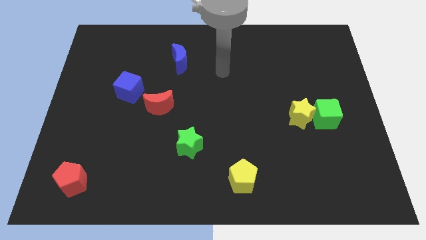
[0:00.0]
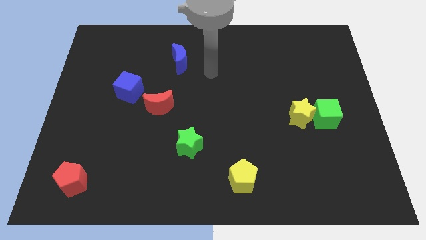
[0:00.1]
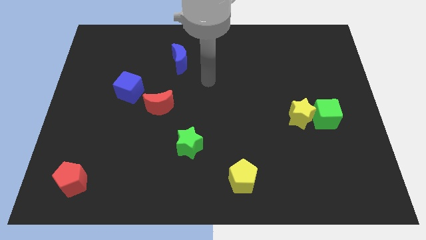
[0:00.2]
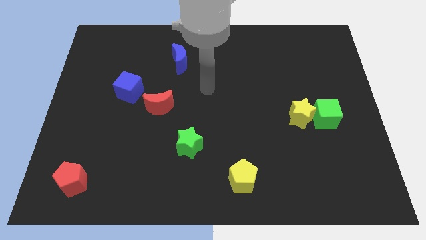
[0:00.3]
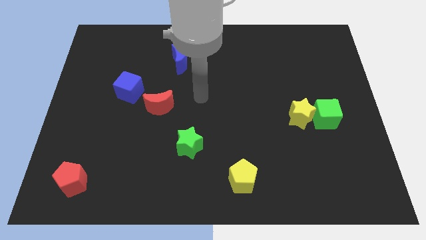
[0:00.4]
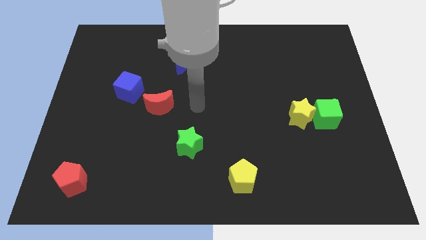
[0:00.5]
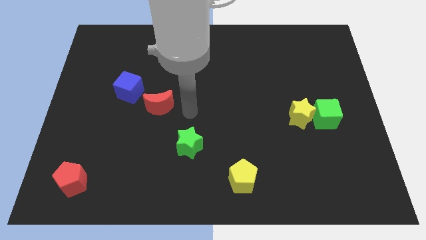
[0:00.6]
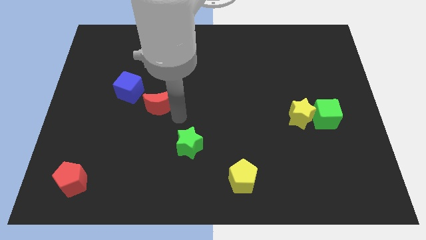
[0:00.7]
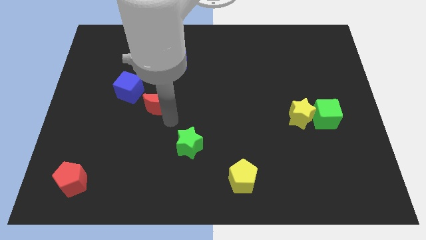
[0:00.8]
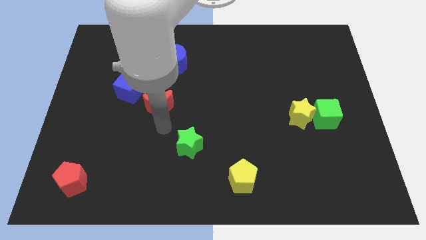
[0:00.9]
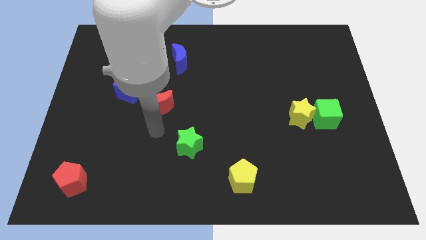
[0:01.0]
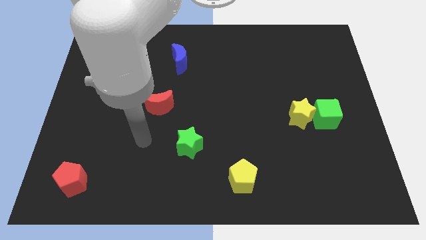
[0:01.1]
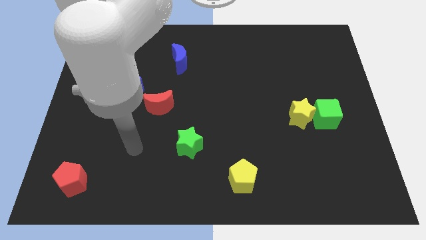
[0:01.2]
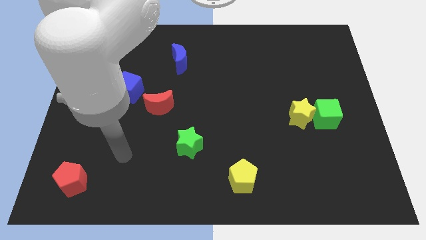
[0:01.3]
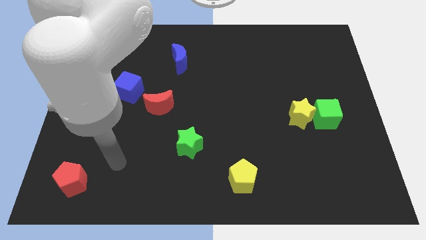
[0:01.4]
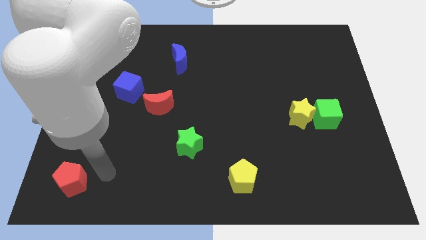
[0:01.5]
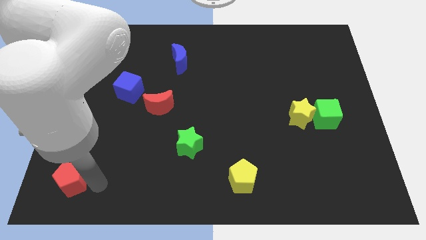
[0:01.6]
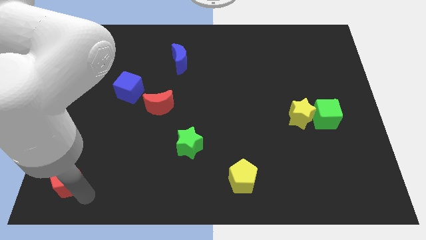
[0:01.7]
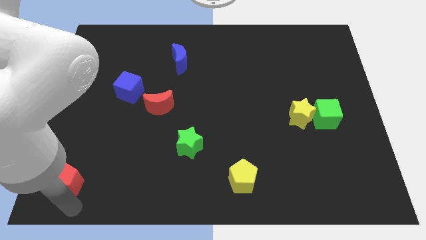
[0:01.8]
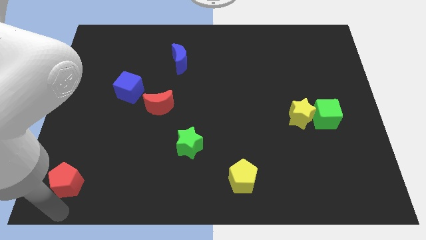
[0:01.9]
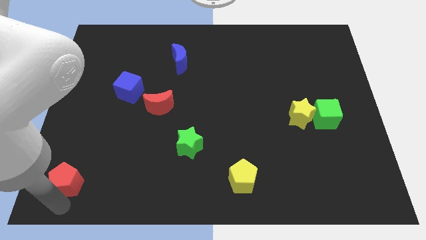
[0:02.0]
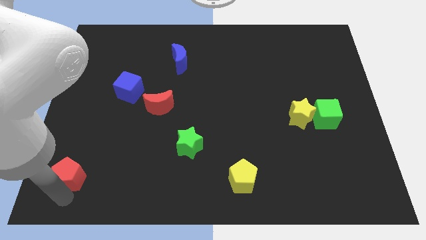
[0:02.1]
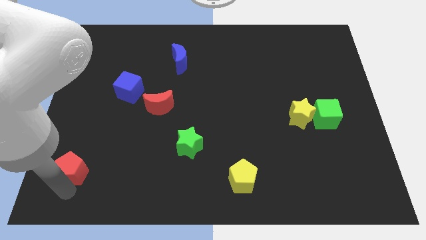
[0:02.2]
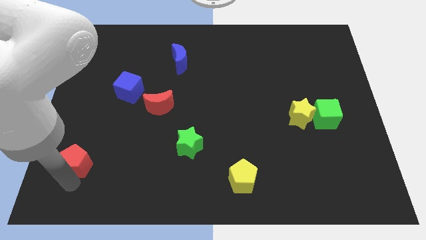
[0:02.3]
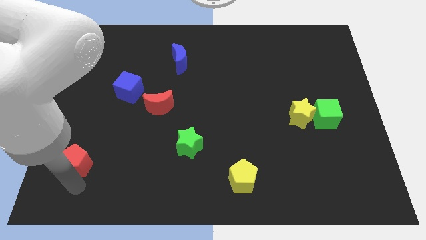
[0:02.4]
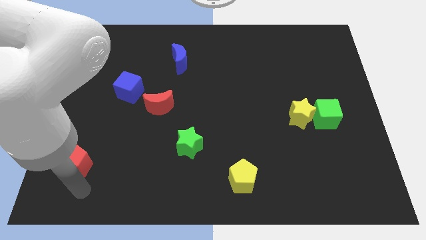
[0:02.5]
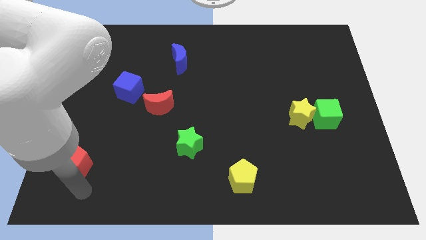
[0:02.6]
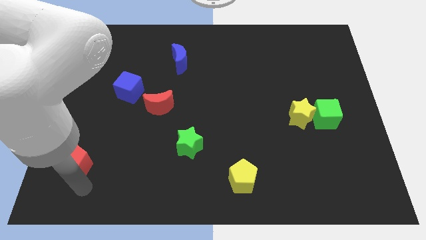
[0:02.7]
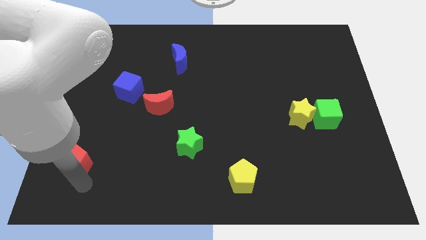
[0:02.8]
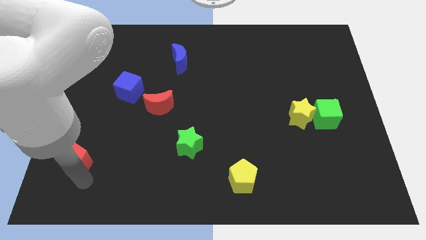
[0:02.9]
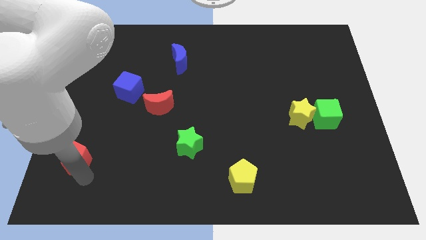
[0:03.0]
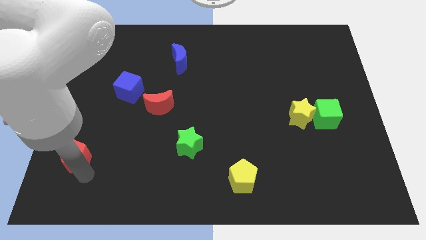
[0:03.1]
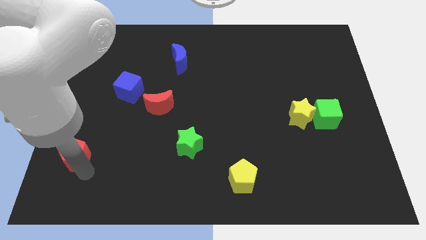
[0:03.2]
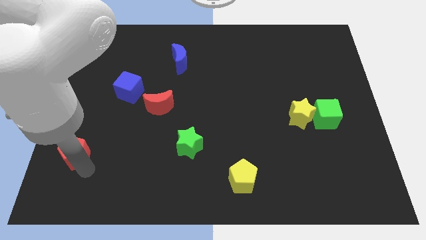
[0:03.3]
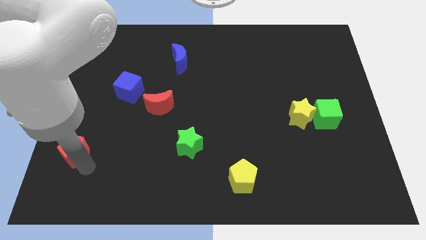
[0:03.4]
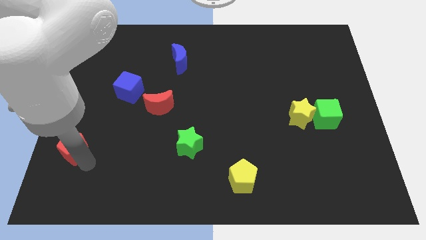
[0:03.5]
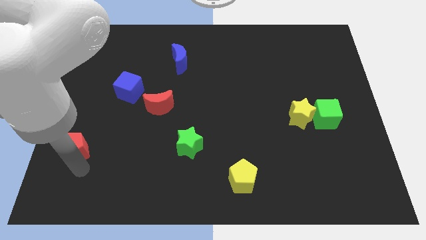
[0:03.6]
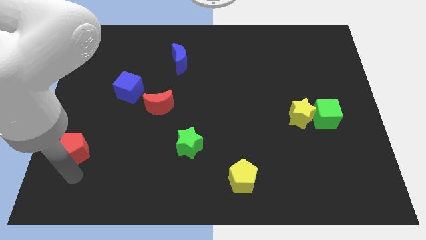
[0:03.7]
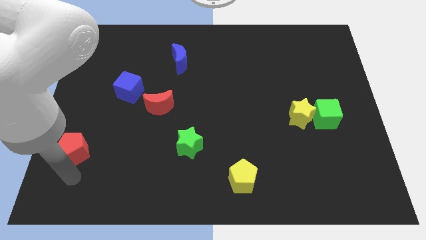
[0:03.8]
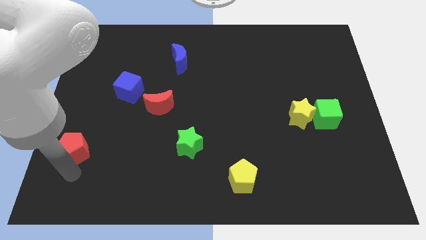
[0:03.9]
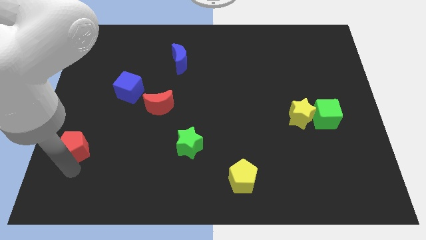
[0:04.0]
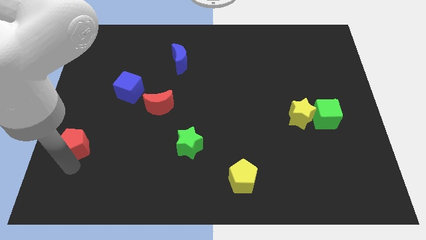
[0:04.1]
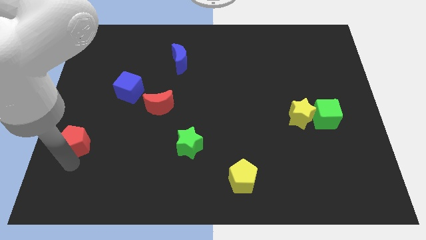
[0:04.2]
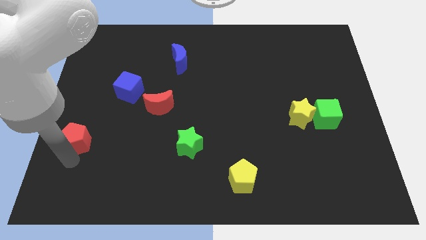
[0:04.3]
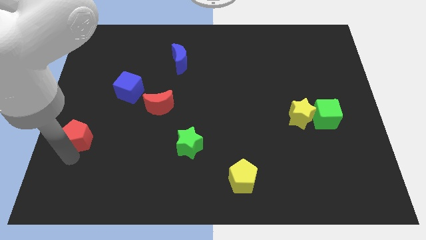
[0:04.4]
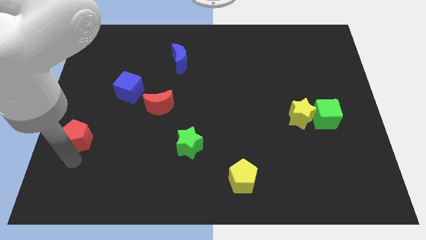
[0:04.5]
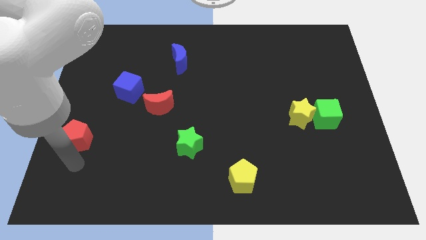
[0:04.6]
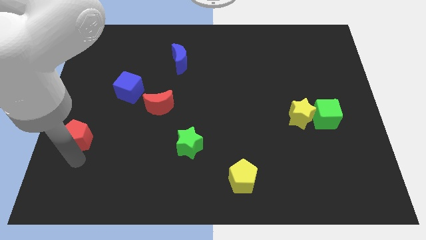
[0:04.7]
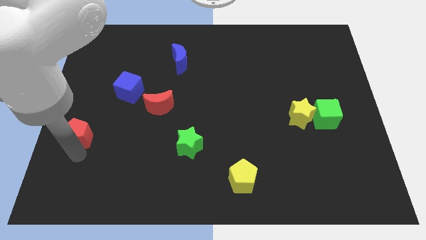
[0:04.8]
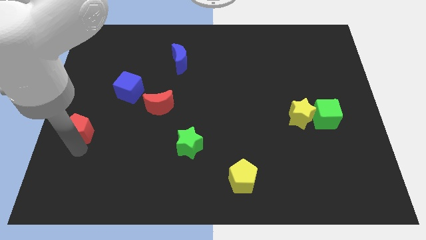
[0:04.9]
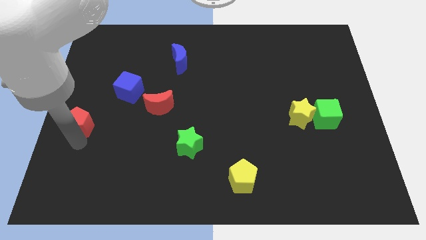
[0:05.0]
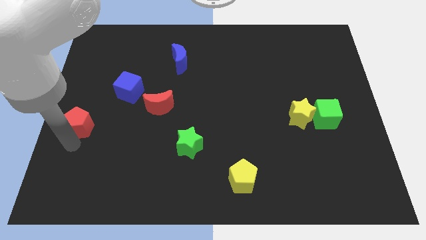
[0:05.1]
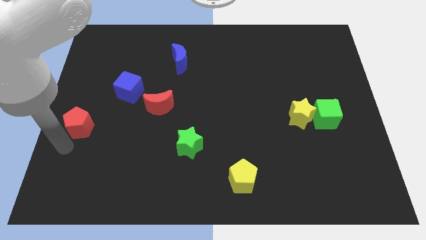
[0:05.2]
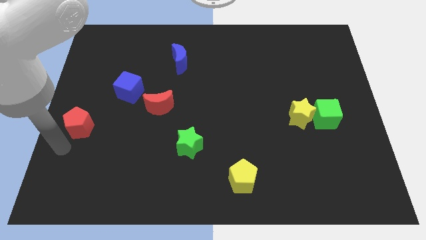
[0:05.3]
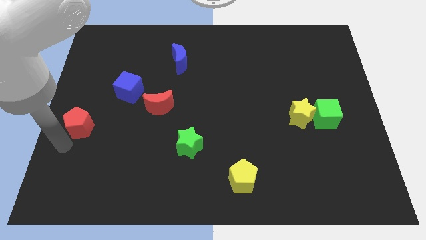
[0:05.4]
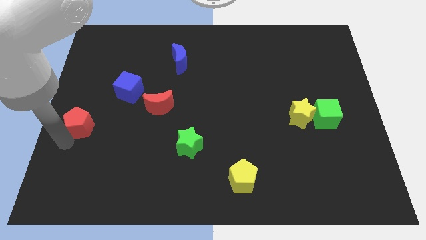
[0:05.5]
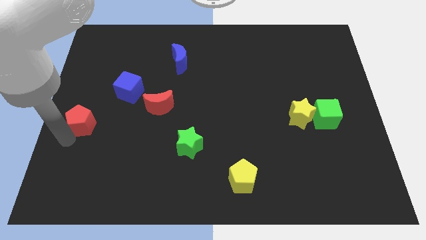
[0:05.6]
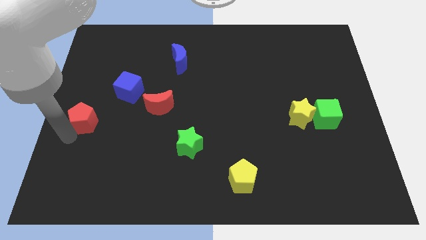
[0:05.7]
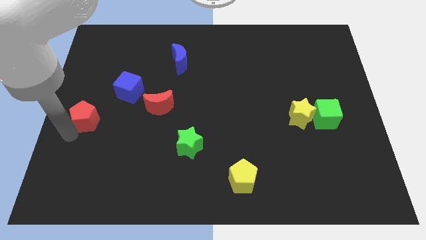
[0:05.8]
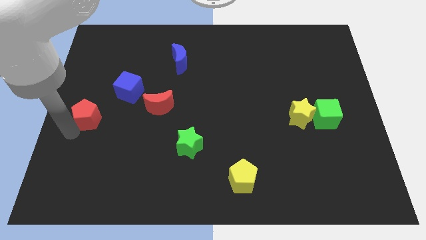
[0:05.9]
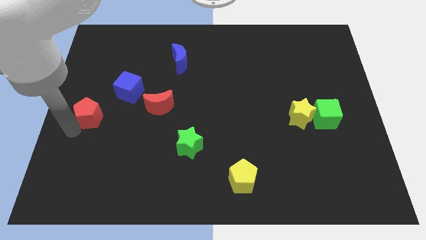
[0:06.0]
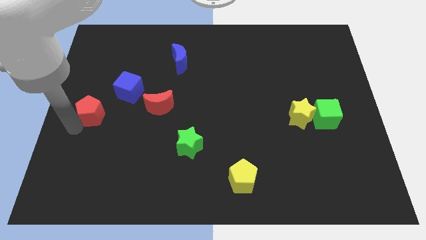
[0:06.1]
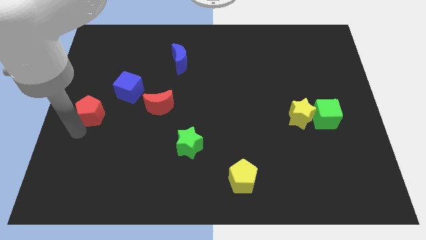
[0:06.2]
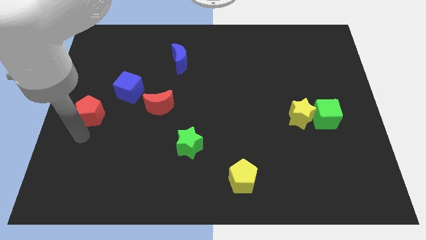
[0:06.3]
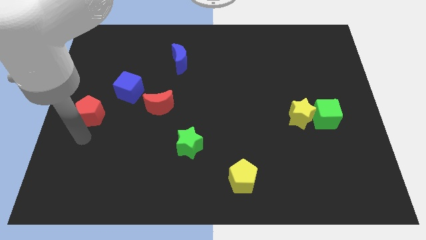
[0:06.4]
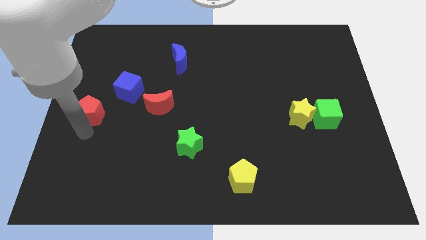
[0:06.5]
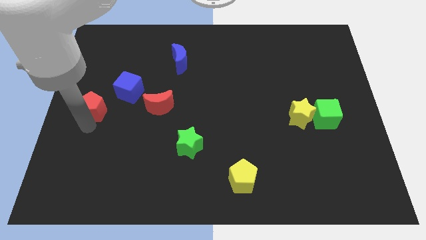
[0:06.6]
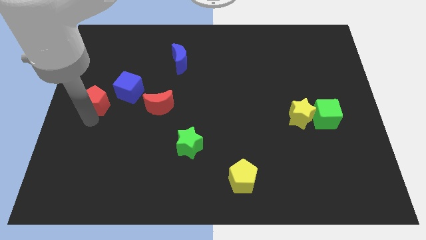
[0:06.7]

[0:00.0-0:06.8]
push the red pentagon upwards

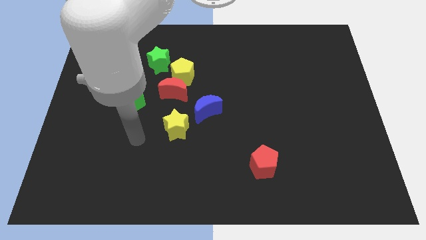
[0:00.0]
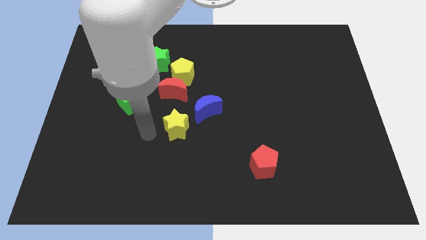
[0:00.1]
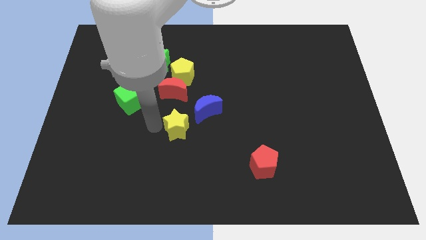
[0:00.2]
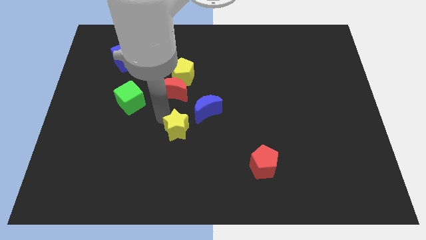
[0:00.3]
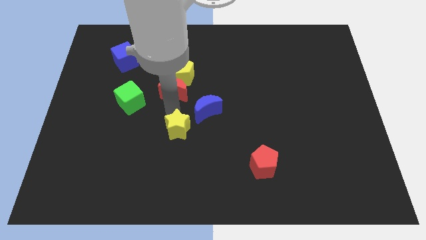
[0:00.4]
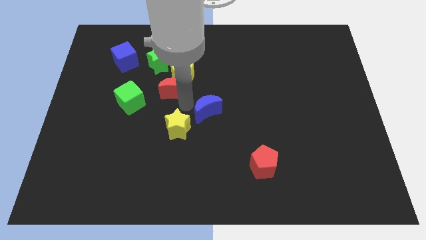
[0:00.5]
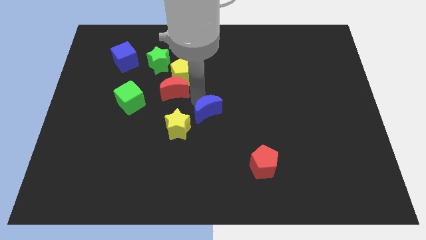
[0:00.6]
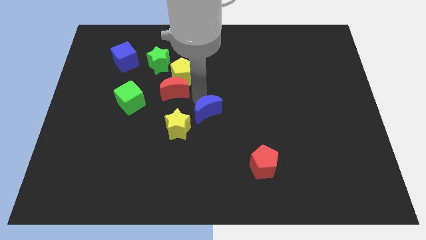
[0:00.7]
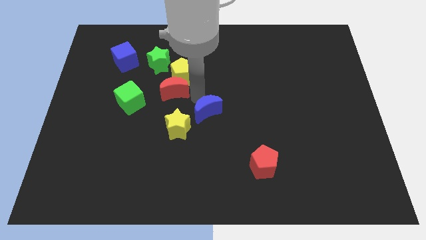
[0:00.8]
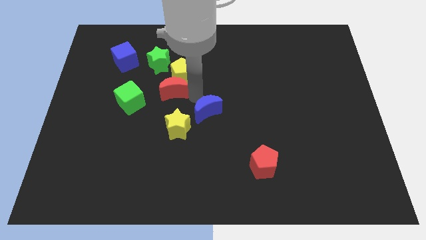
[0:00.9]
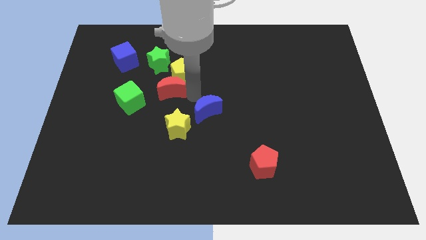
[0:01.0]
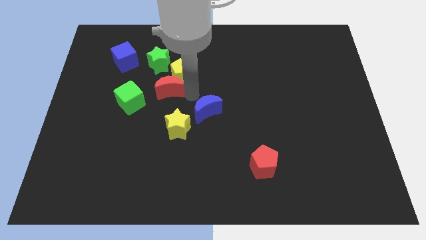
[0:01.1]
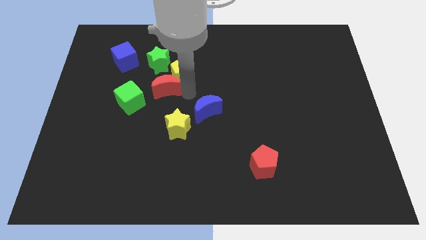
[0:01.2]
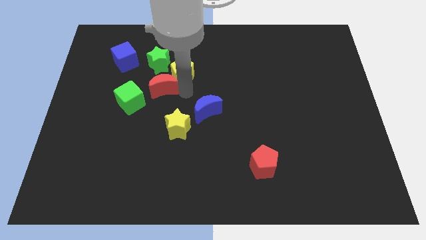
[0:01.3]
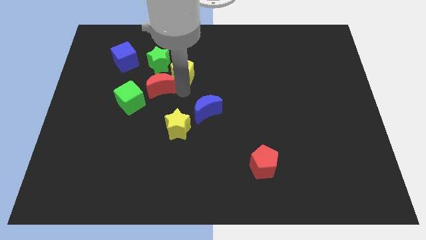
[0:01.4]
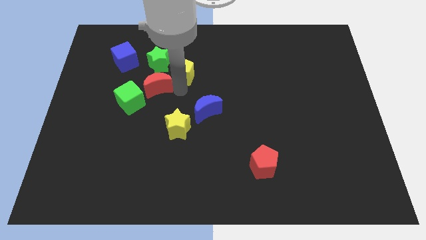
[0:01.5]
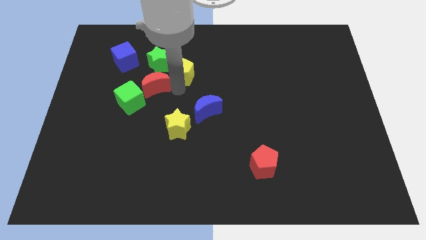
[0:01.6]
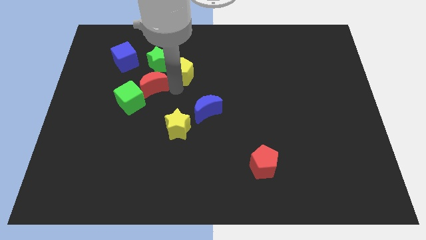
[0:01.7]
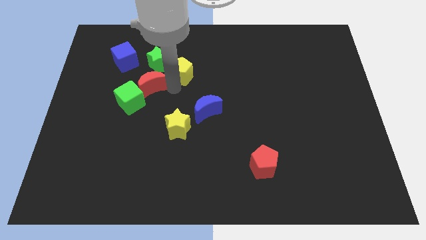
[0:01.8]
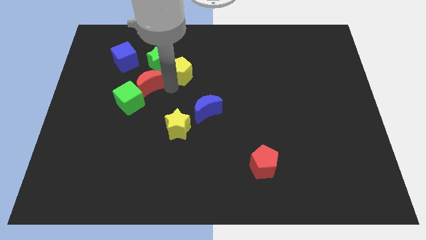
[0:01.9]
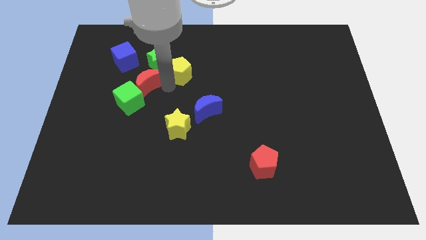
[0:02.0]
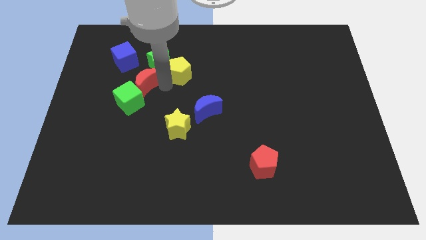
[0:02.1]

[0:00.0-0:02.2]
slightly push the red moon left
